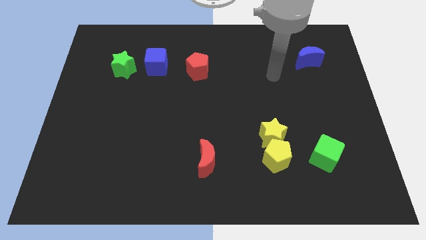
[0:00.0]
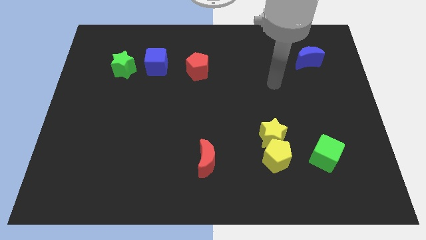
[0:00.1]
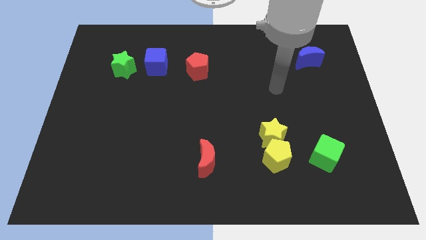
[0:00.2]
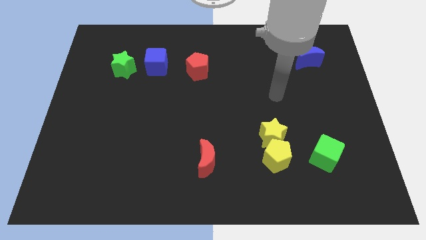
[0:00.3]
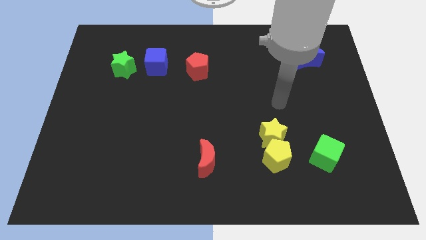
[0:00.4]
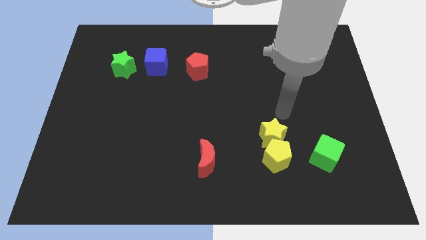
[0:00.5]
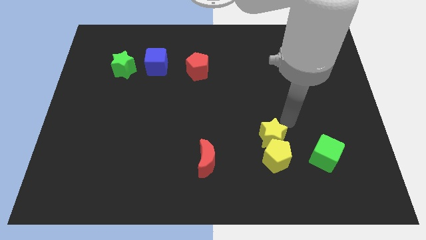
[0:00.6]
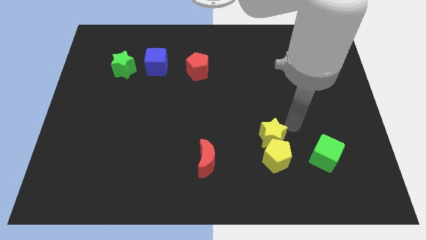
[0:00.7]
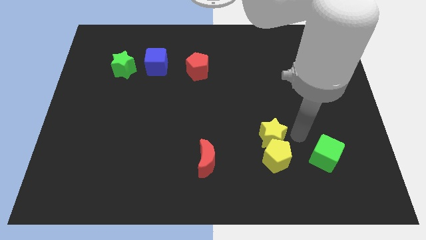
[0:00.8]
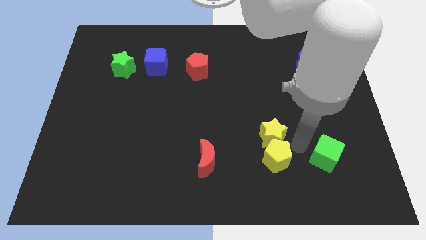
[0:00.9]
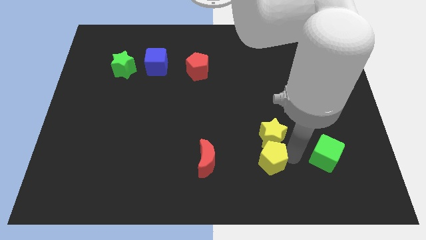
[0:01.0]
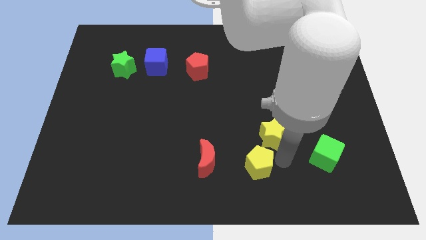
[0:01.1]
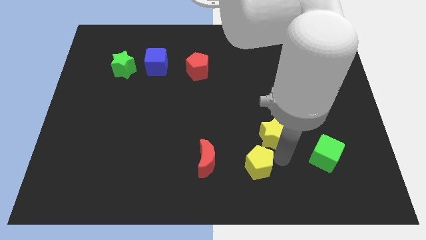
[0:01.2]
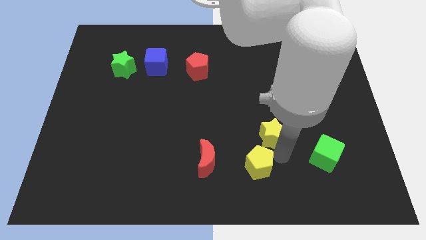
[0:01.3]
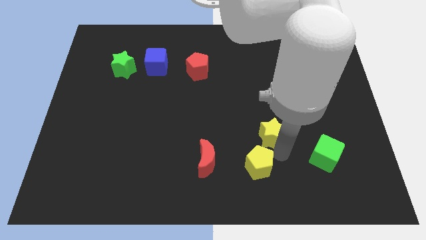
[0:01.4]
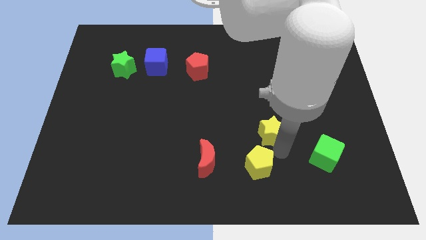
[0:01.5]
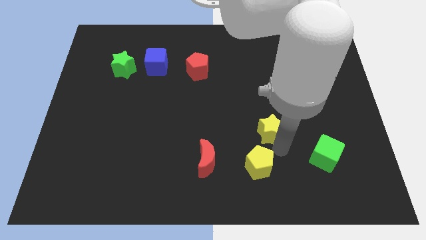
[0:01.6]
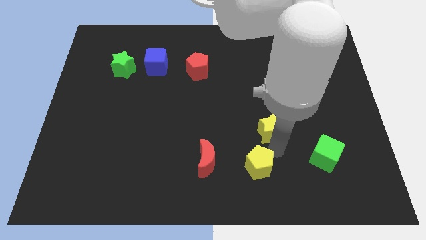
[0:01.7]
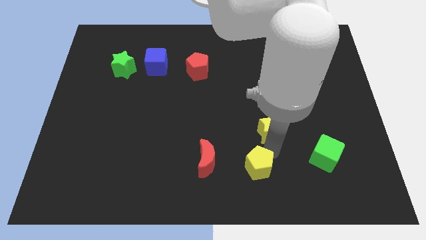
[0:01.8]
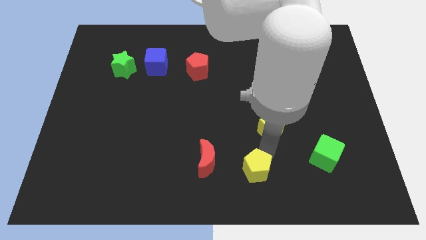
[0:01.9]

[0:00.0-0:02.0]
move the yellow star away from the yellow pentagon

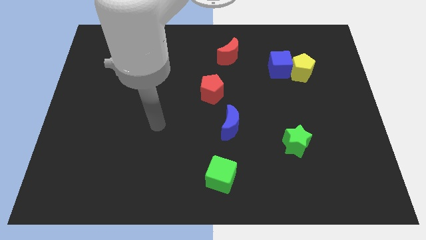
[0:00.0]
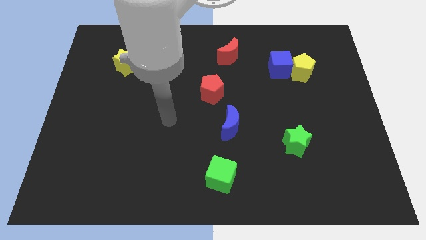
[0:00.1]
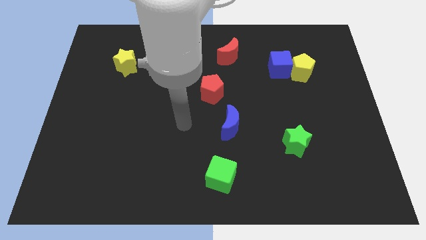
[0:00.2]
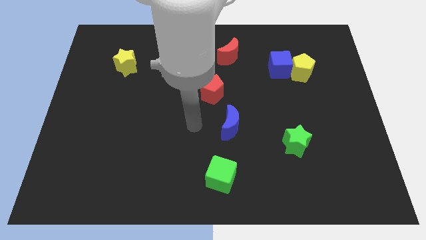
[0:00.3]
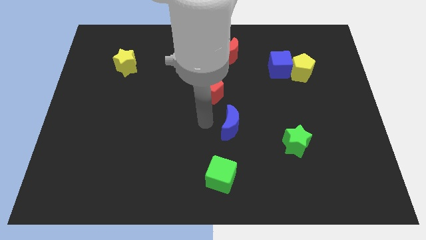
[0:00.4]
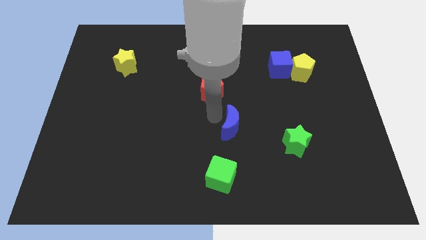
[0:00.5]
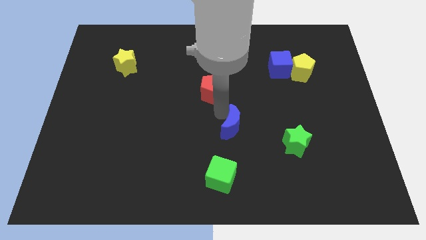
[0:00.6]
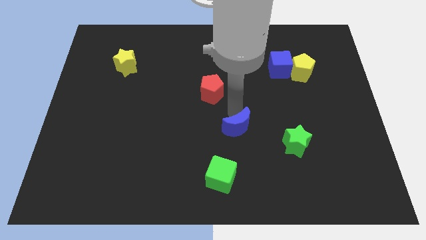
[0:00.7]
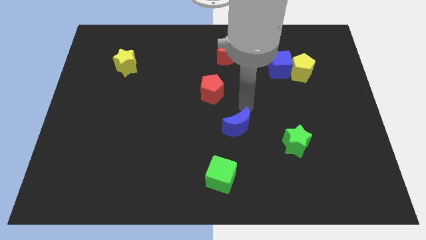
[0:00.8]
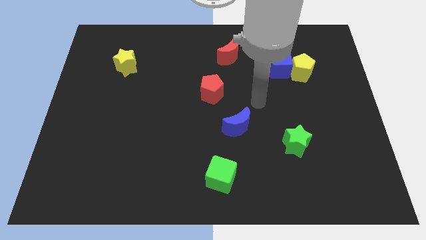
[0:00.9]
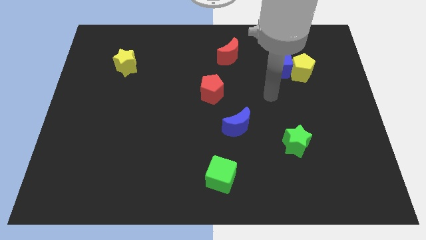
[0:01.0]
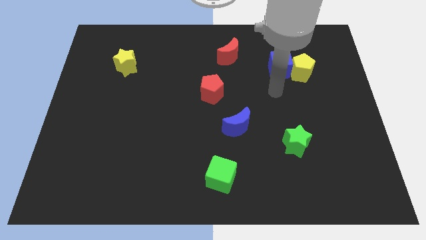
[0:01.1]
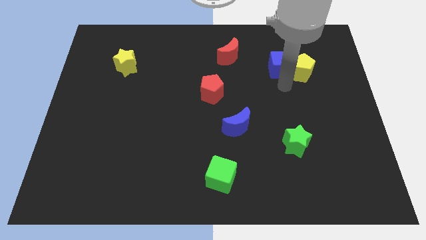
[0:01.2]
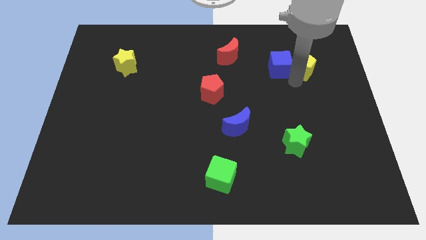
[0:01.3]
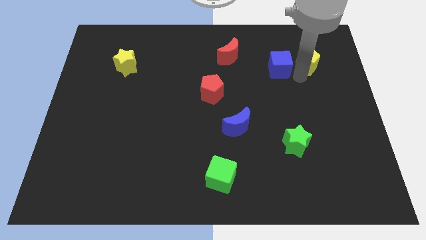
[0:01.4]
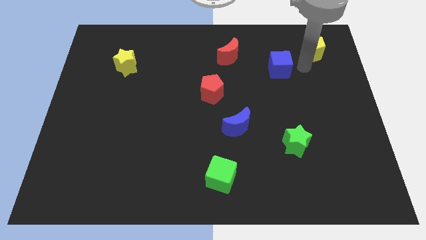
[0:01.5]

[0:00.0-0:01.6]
separate the blue cube from the yellow pentagon

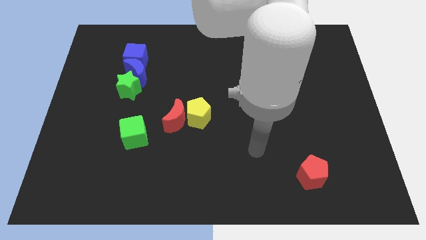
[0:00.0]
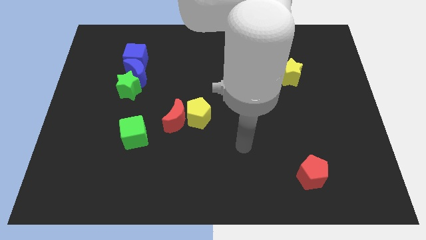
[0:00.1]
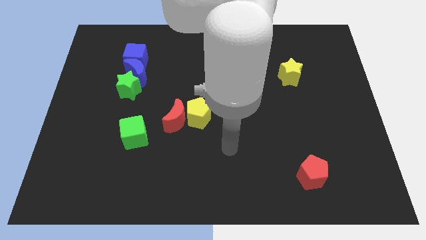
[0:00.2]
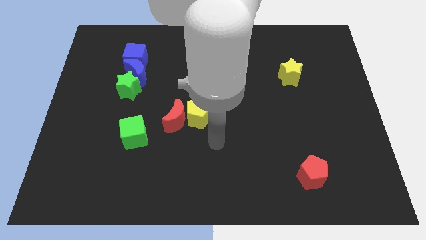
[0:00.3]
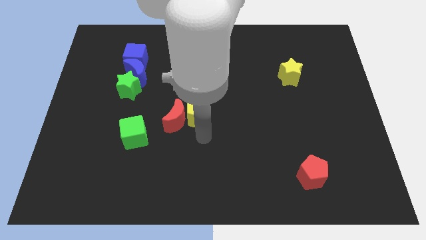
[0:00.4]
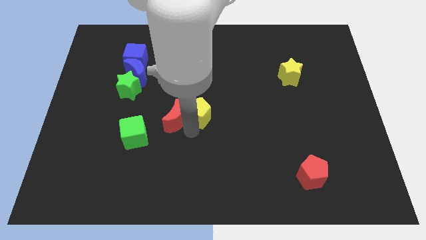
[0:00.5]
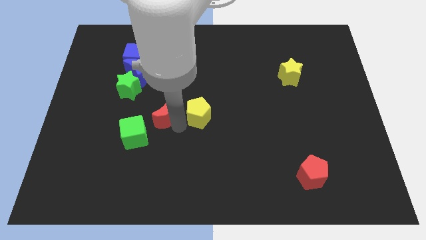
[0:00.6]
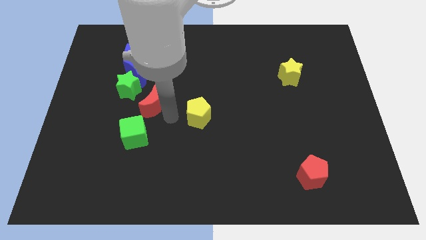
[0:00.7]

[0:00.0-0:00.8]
pull the yellow pentagon apart from the red moon

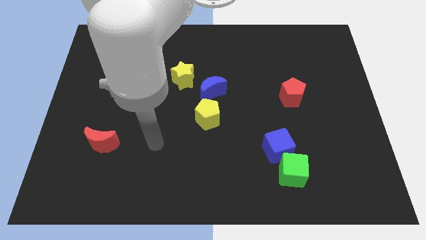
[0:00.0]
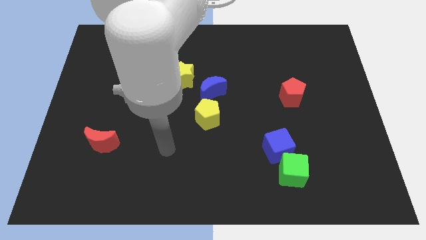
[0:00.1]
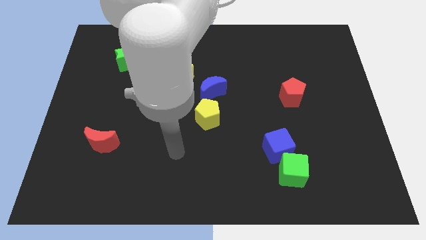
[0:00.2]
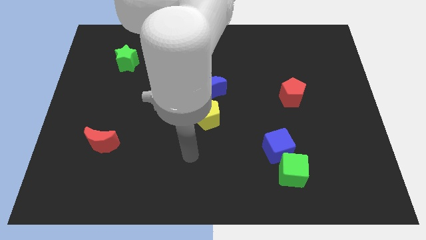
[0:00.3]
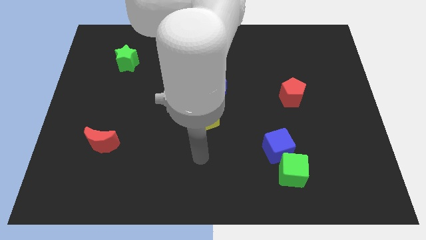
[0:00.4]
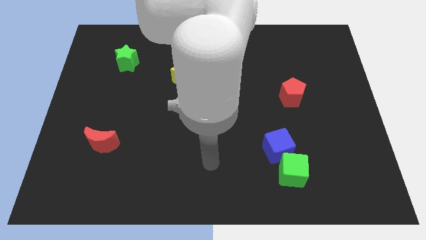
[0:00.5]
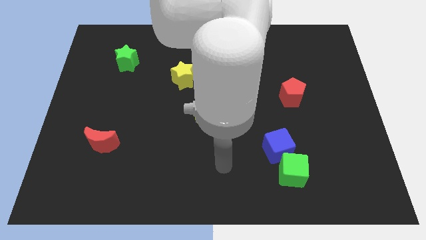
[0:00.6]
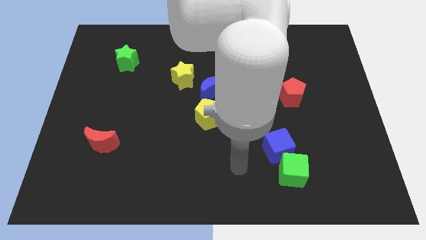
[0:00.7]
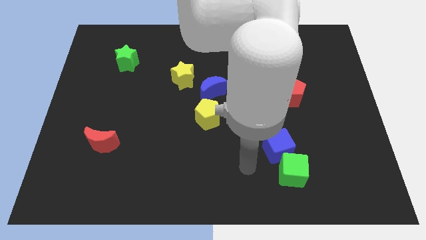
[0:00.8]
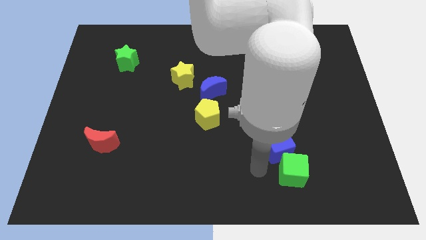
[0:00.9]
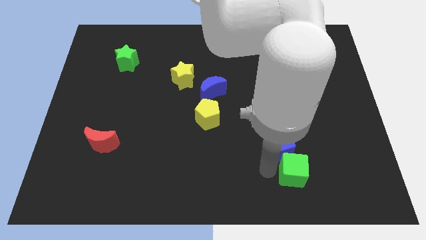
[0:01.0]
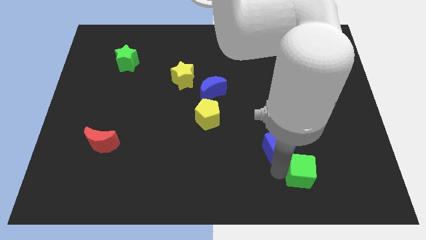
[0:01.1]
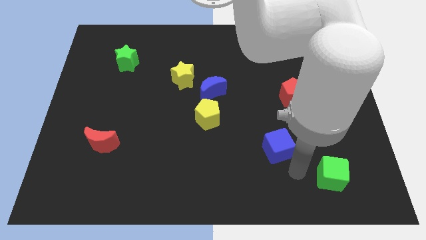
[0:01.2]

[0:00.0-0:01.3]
pull the blue cube apart from the green cube

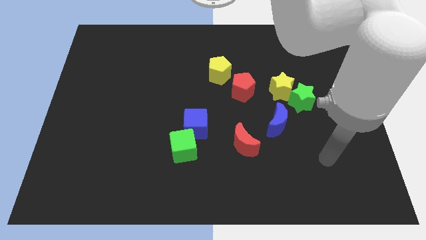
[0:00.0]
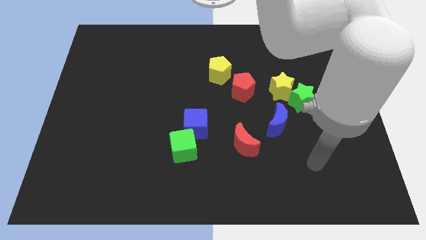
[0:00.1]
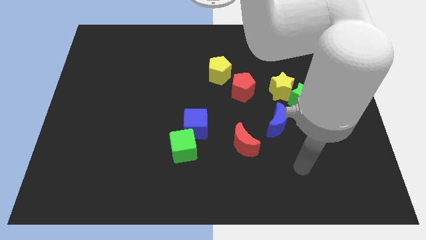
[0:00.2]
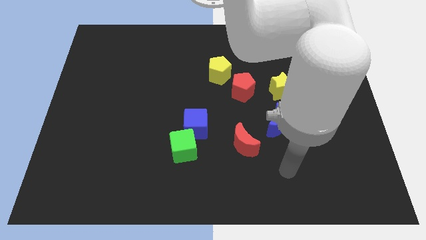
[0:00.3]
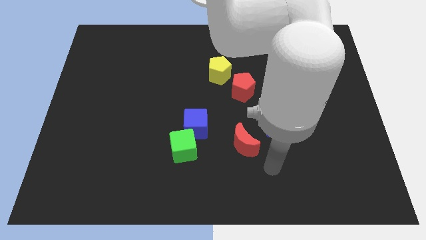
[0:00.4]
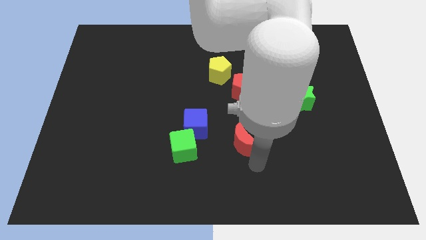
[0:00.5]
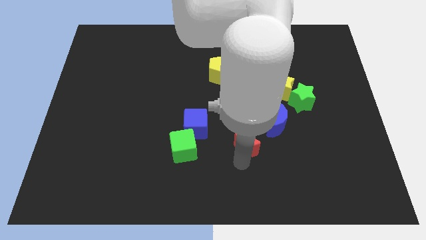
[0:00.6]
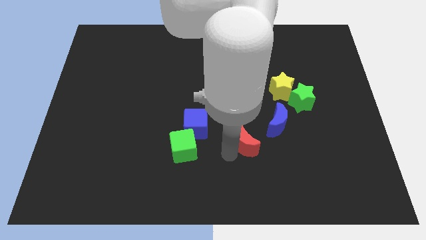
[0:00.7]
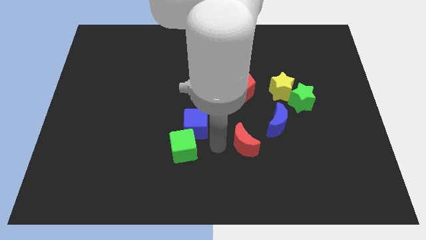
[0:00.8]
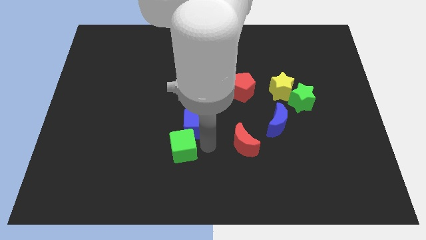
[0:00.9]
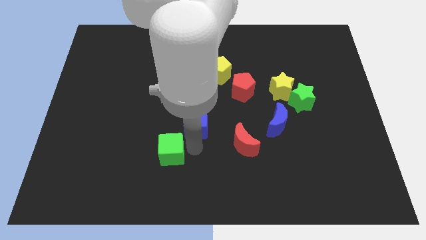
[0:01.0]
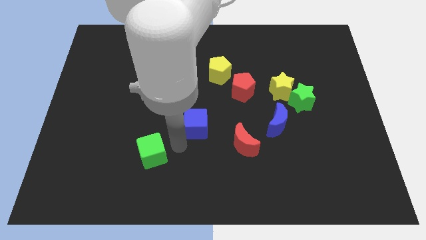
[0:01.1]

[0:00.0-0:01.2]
move the blue cube away from the green cube

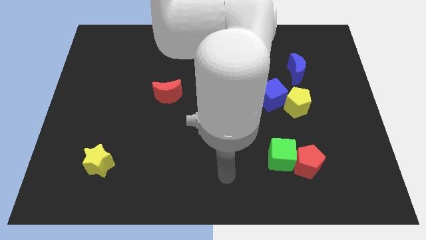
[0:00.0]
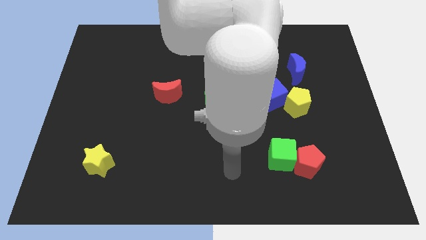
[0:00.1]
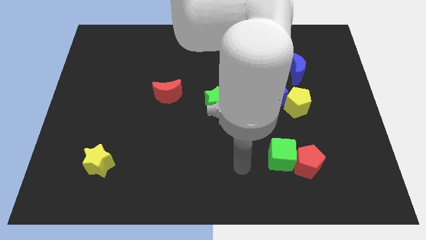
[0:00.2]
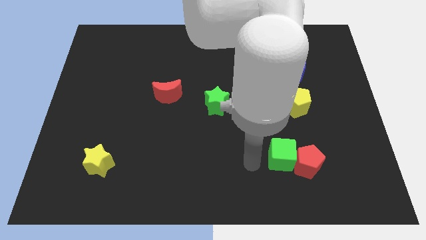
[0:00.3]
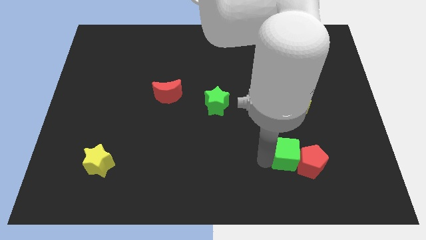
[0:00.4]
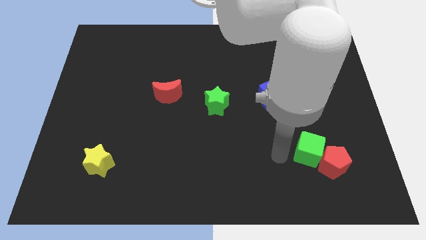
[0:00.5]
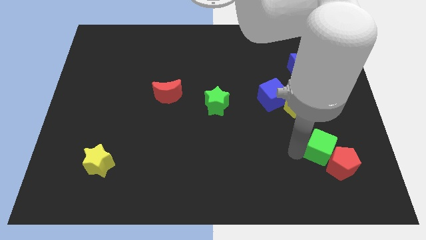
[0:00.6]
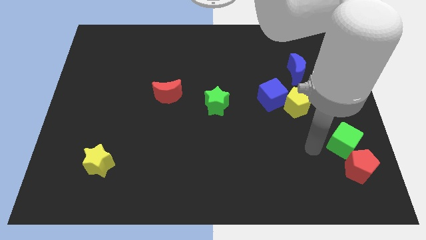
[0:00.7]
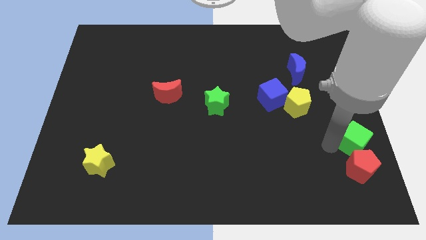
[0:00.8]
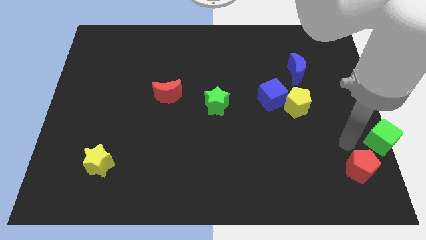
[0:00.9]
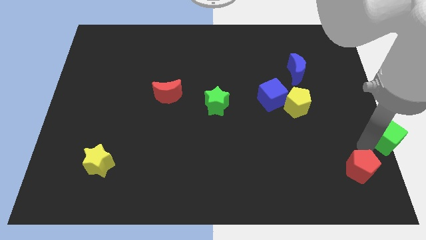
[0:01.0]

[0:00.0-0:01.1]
move the red pentagon away from the green cube

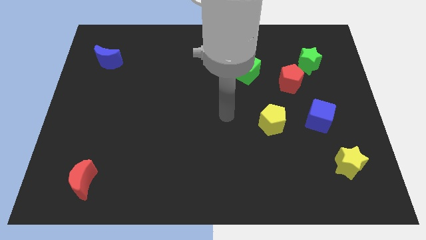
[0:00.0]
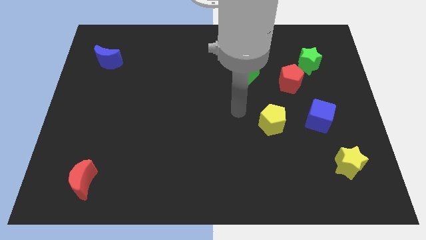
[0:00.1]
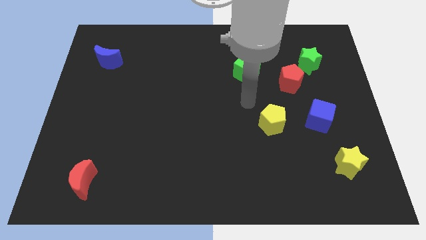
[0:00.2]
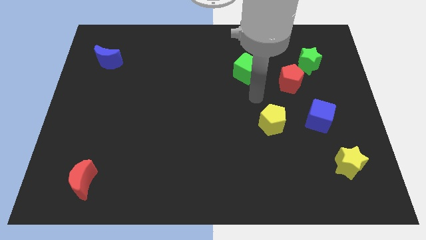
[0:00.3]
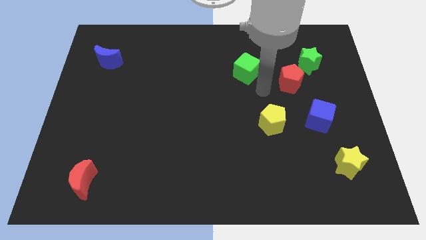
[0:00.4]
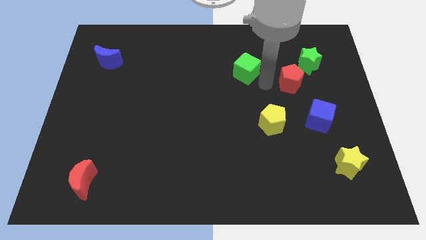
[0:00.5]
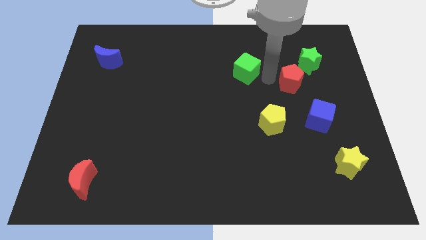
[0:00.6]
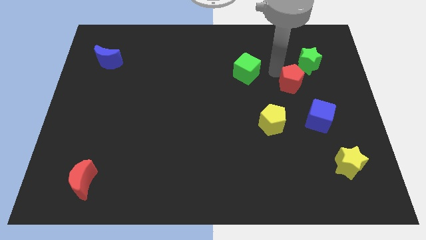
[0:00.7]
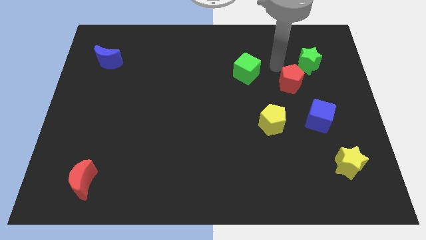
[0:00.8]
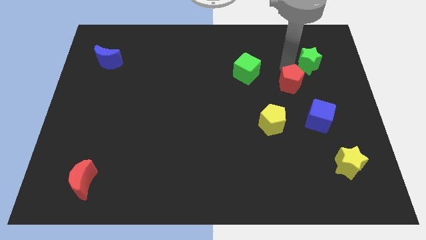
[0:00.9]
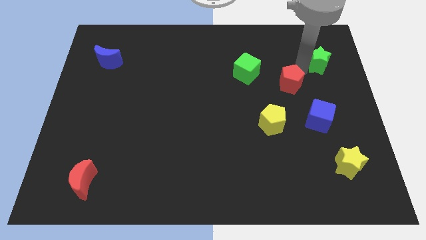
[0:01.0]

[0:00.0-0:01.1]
separate the red pentagon from the green star

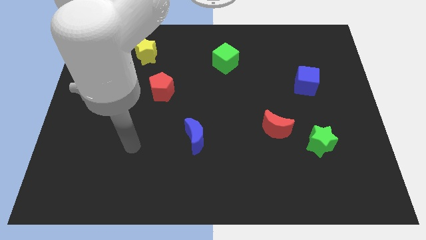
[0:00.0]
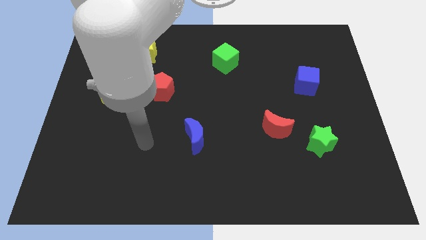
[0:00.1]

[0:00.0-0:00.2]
pull the red moon apart from the green star
